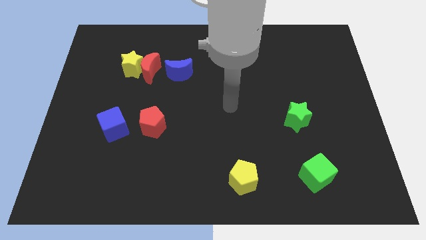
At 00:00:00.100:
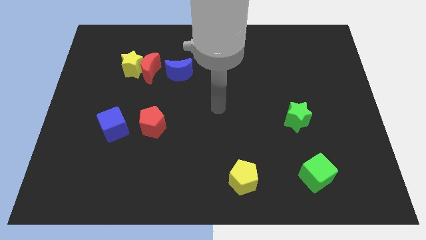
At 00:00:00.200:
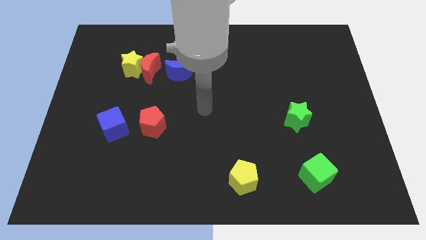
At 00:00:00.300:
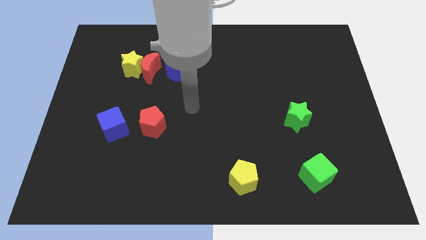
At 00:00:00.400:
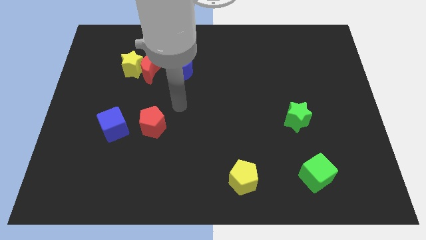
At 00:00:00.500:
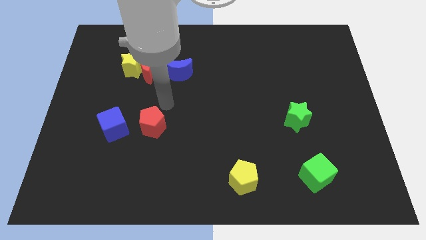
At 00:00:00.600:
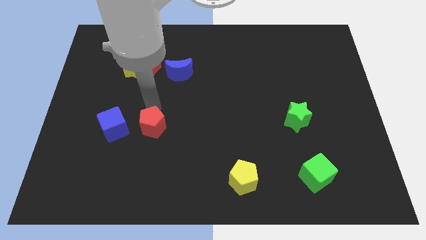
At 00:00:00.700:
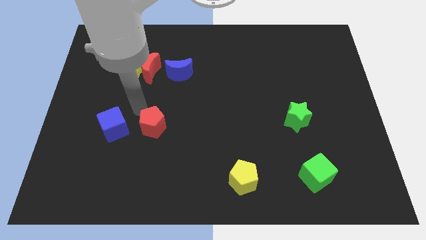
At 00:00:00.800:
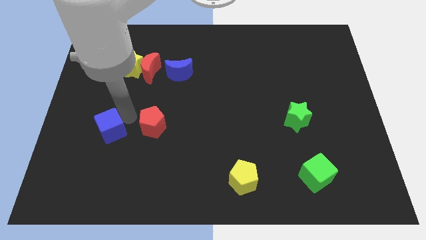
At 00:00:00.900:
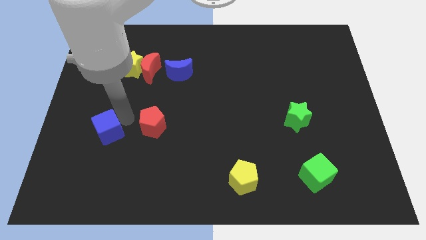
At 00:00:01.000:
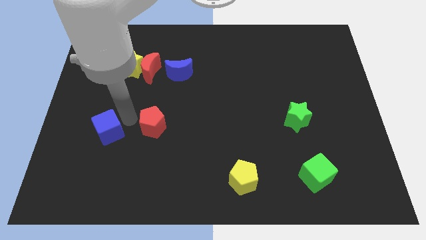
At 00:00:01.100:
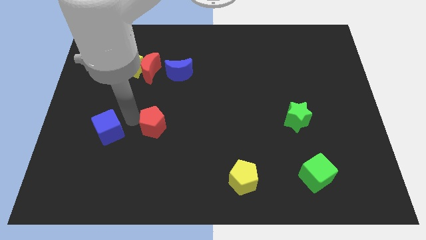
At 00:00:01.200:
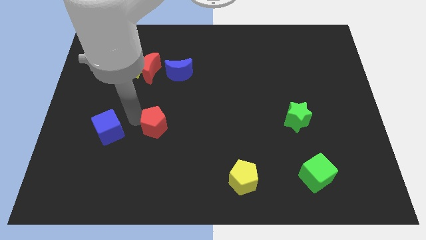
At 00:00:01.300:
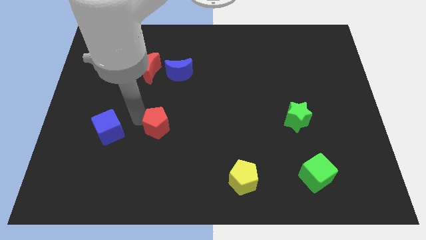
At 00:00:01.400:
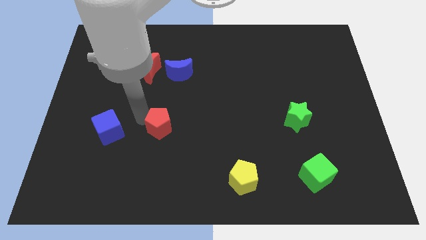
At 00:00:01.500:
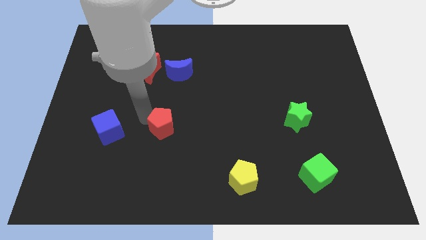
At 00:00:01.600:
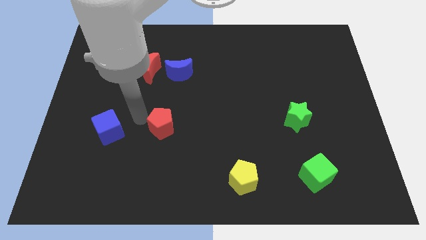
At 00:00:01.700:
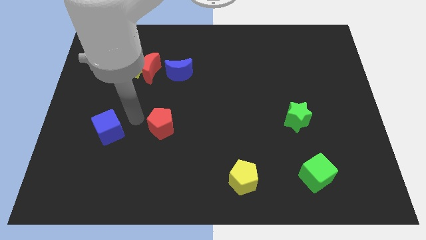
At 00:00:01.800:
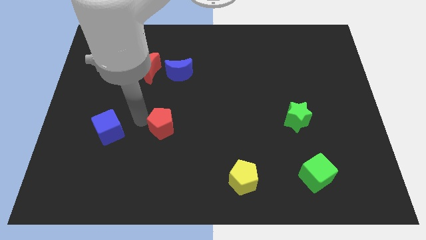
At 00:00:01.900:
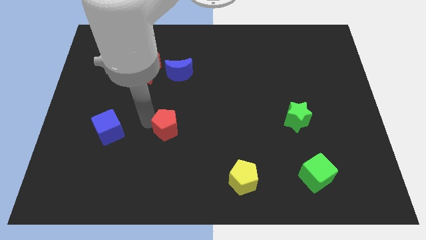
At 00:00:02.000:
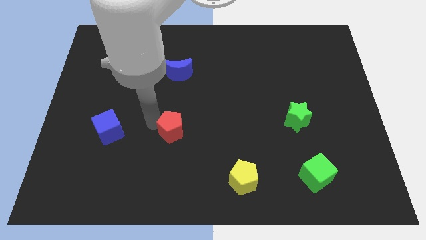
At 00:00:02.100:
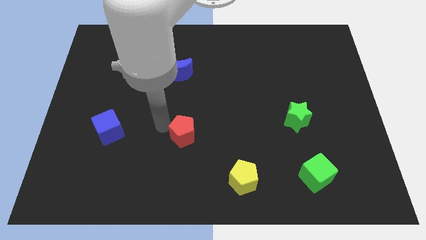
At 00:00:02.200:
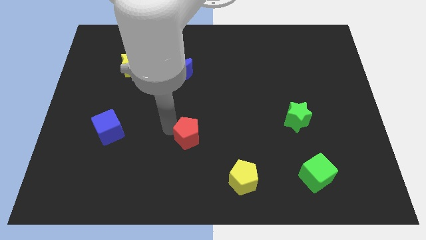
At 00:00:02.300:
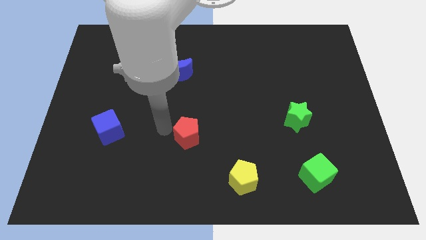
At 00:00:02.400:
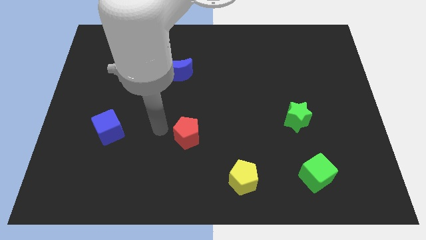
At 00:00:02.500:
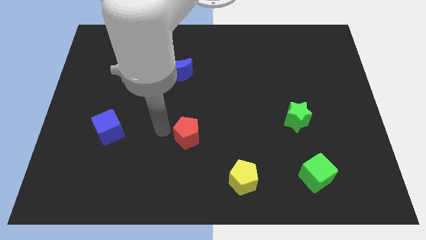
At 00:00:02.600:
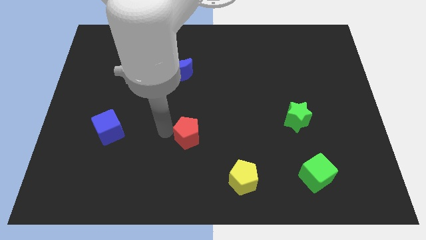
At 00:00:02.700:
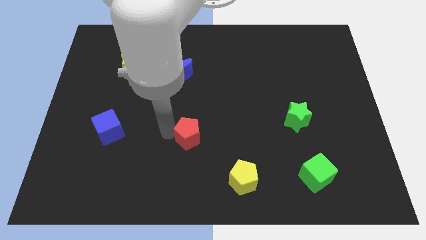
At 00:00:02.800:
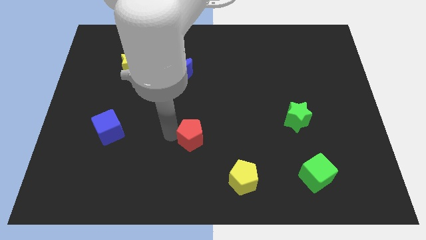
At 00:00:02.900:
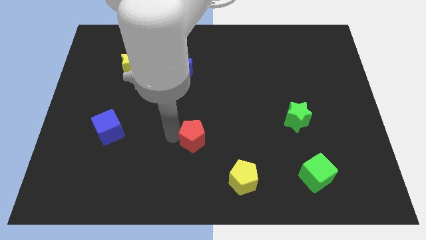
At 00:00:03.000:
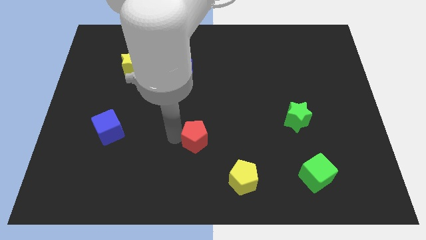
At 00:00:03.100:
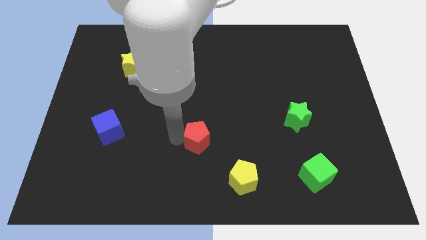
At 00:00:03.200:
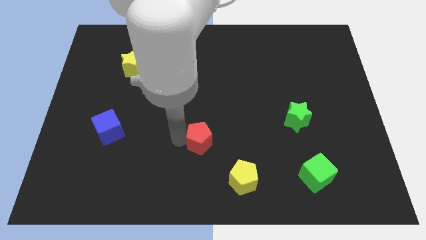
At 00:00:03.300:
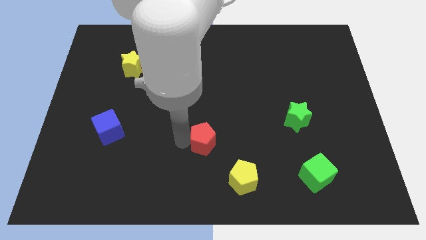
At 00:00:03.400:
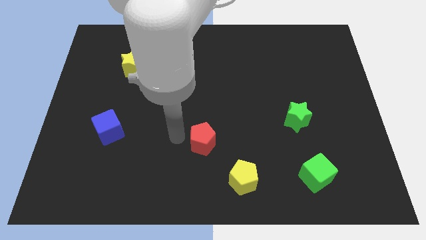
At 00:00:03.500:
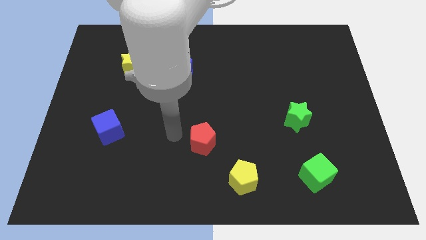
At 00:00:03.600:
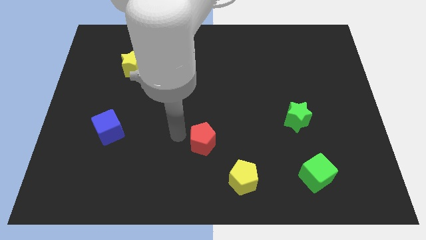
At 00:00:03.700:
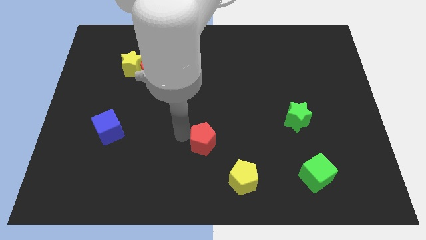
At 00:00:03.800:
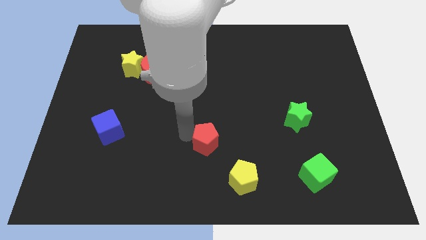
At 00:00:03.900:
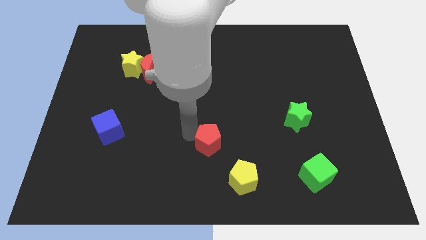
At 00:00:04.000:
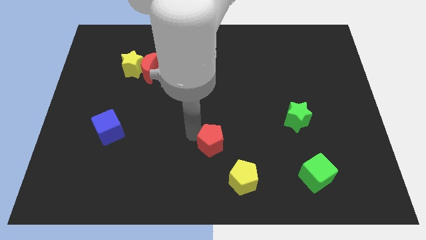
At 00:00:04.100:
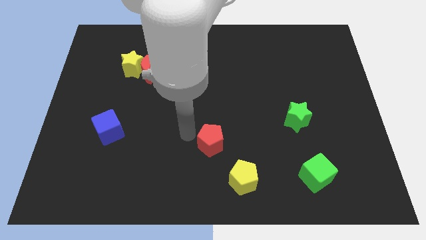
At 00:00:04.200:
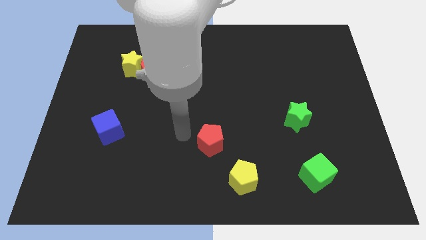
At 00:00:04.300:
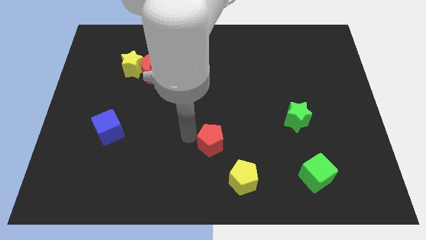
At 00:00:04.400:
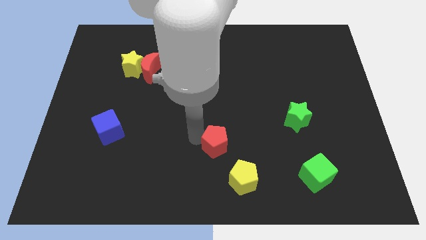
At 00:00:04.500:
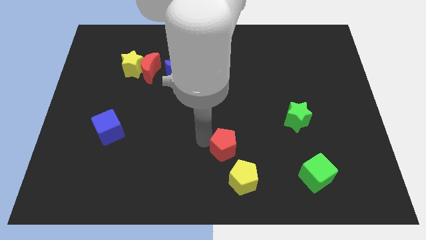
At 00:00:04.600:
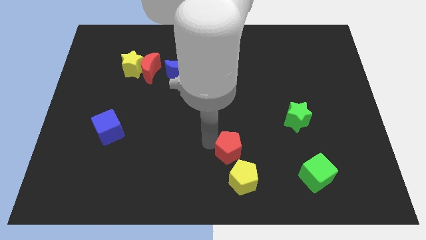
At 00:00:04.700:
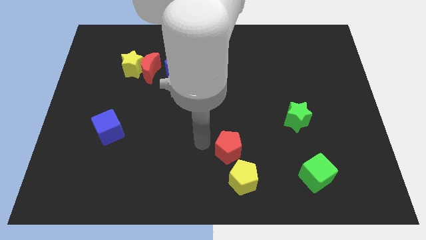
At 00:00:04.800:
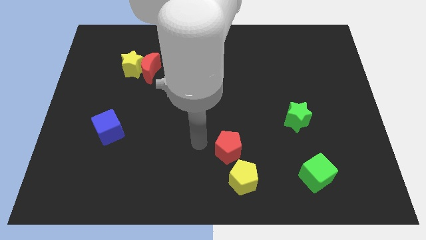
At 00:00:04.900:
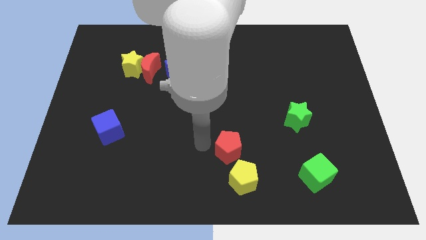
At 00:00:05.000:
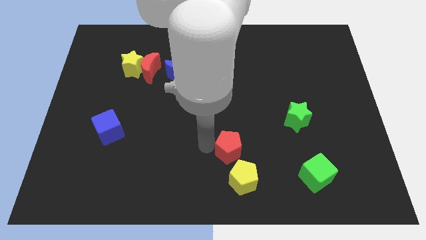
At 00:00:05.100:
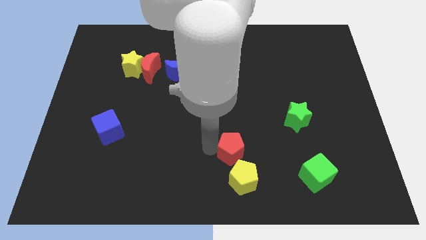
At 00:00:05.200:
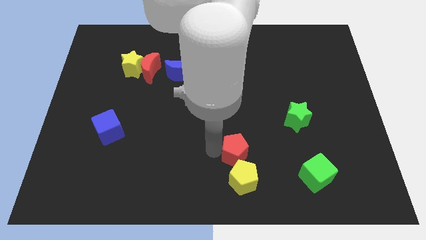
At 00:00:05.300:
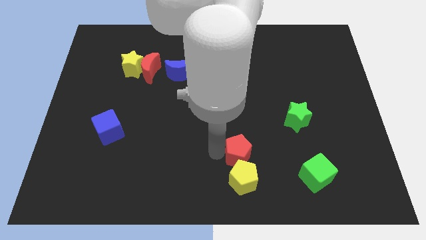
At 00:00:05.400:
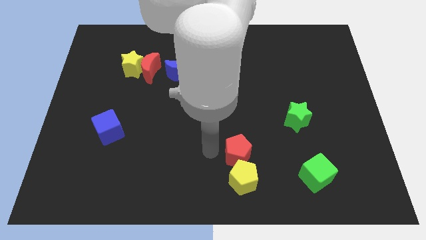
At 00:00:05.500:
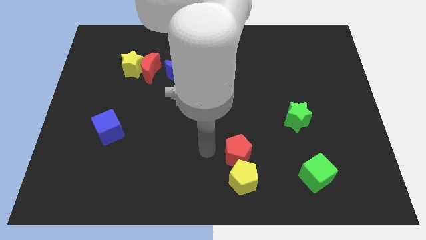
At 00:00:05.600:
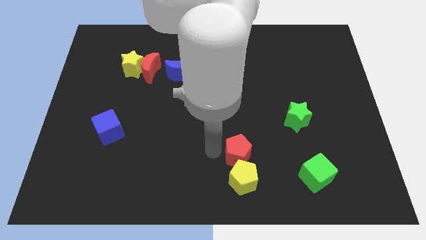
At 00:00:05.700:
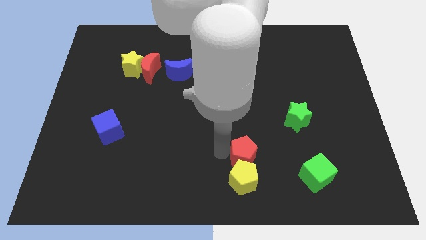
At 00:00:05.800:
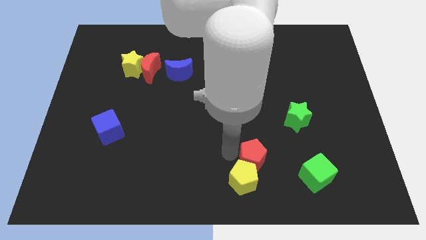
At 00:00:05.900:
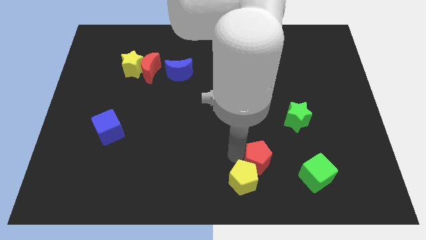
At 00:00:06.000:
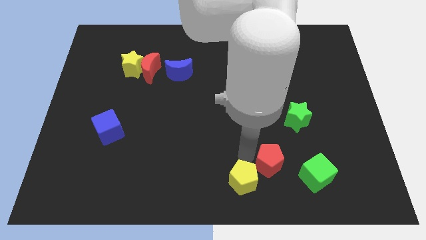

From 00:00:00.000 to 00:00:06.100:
slide the red pentagon just right of the yellow pentagon

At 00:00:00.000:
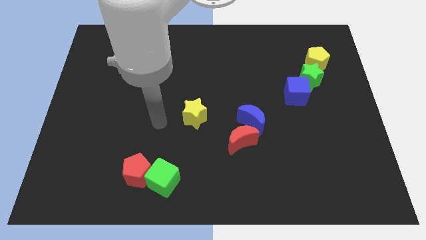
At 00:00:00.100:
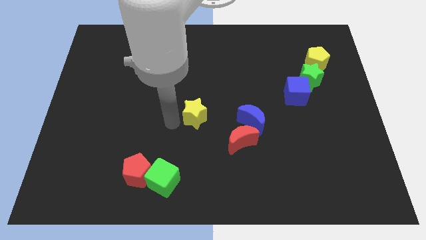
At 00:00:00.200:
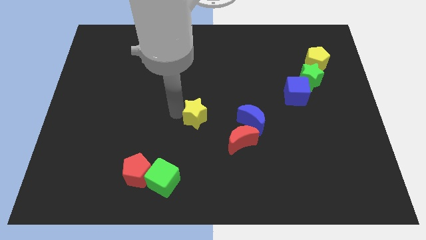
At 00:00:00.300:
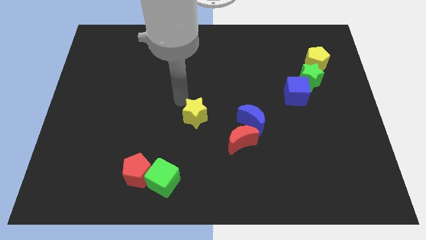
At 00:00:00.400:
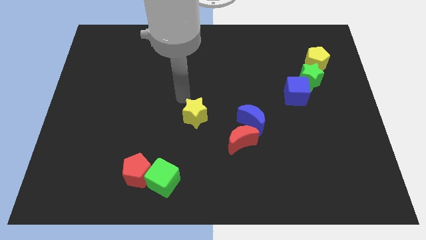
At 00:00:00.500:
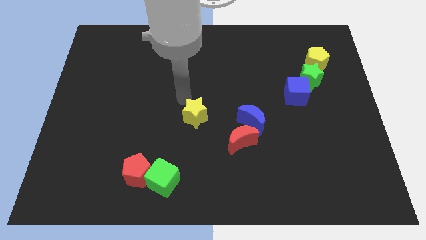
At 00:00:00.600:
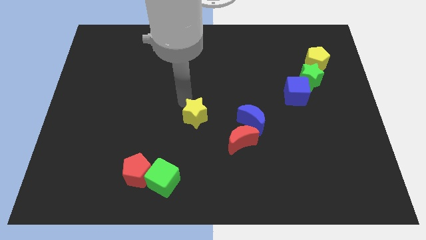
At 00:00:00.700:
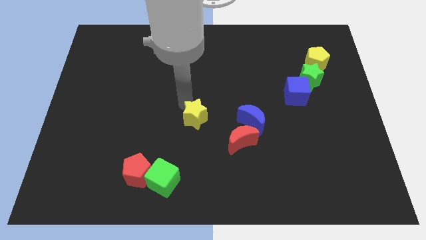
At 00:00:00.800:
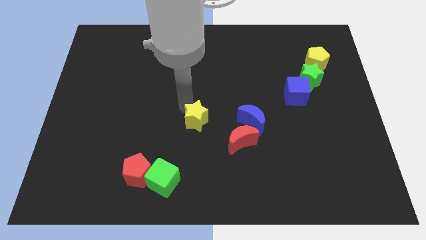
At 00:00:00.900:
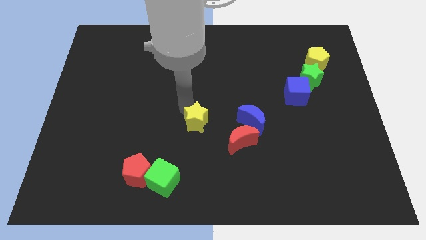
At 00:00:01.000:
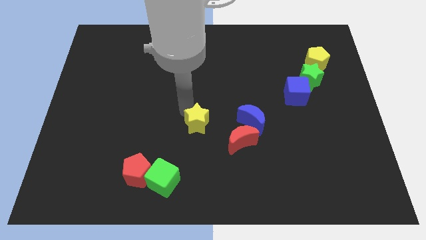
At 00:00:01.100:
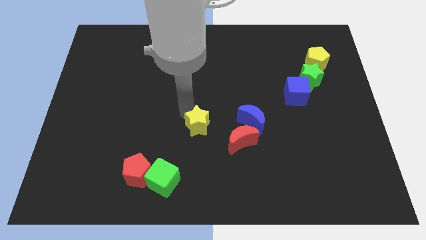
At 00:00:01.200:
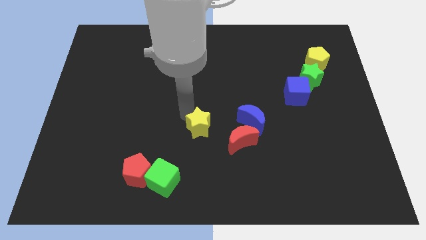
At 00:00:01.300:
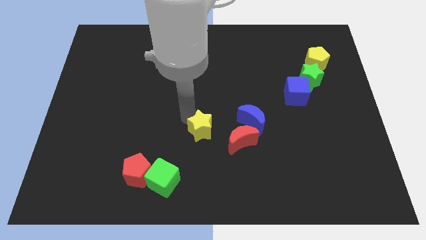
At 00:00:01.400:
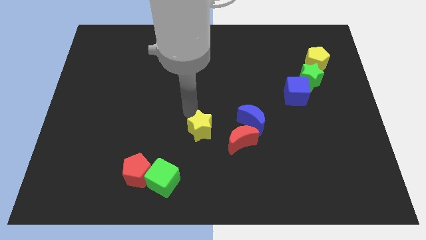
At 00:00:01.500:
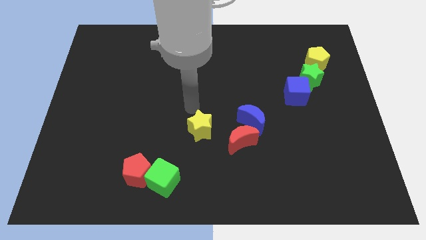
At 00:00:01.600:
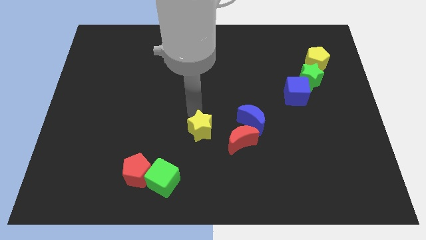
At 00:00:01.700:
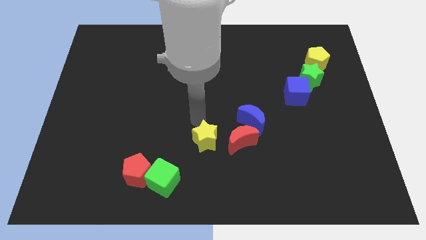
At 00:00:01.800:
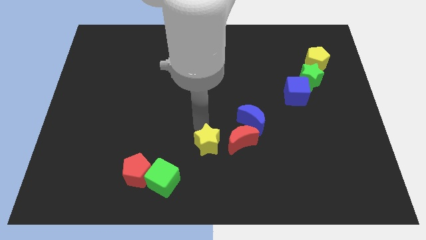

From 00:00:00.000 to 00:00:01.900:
push the yellow star to the bottom left side of the red moon
